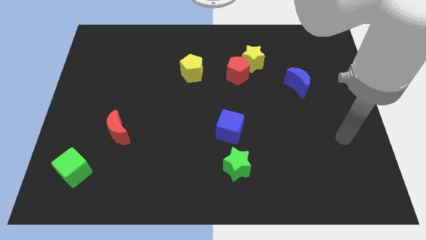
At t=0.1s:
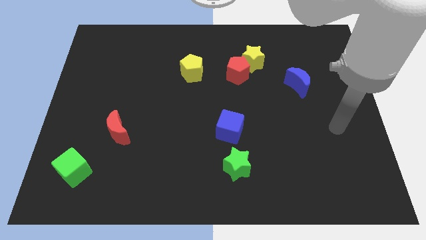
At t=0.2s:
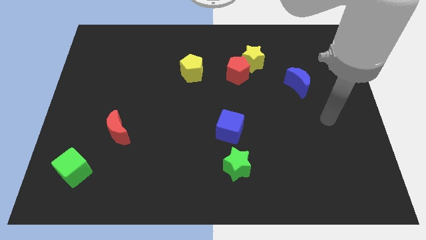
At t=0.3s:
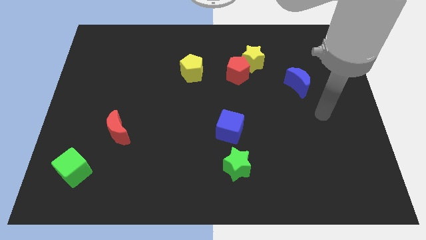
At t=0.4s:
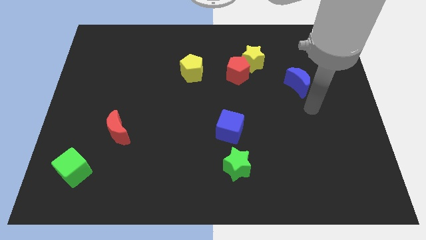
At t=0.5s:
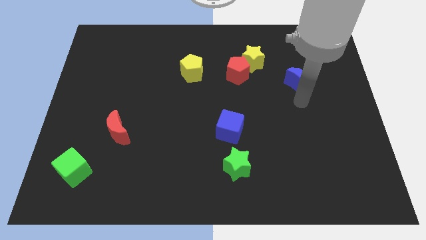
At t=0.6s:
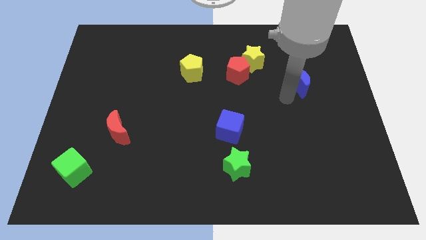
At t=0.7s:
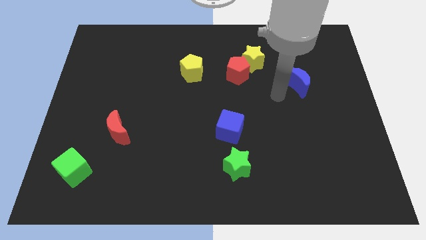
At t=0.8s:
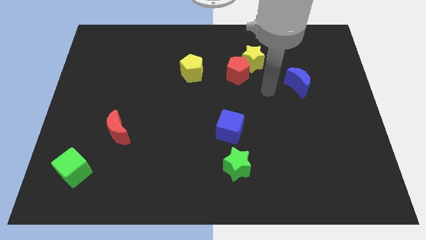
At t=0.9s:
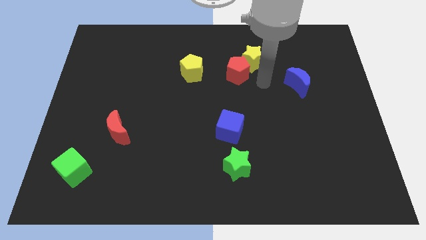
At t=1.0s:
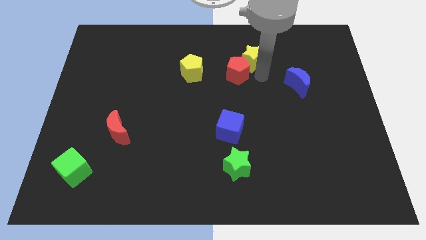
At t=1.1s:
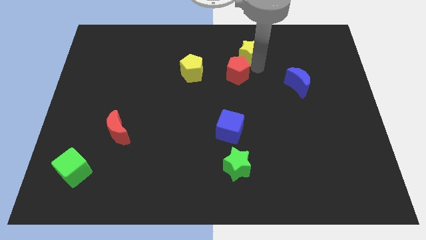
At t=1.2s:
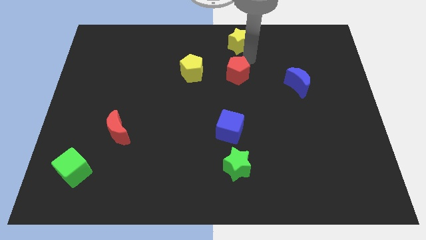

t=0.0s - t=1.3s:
pull the red pentagon apart from the yellow star

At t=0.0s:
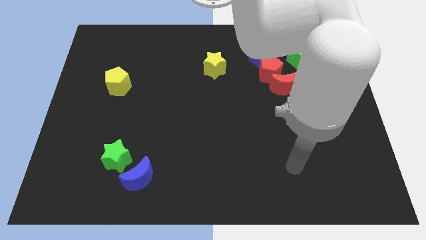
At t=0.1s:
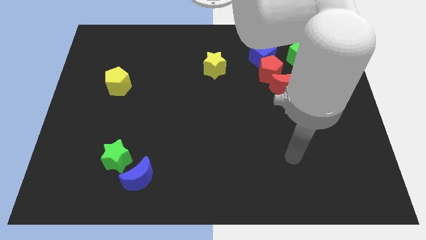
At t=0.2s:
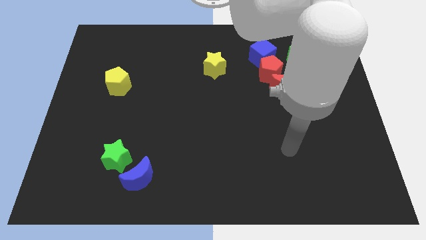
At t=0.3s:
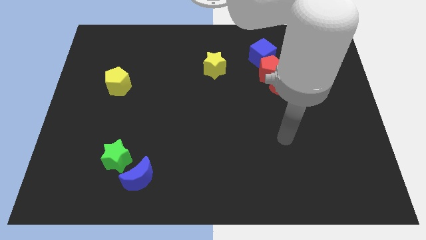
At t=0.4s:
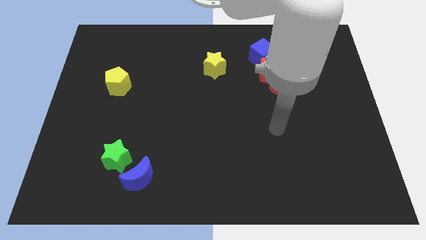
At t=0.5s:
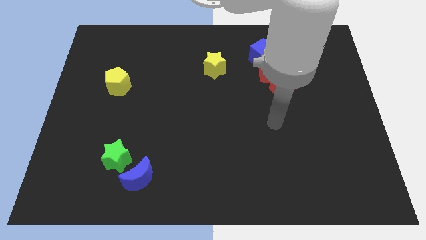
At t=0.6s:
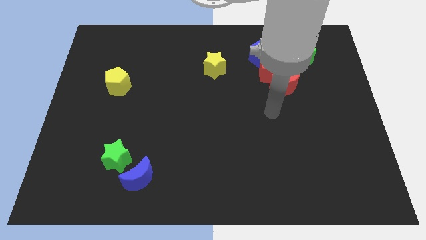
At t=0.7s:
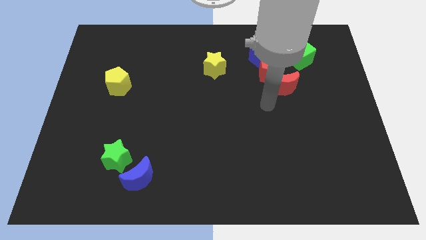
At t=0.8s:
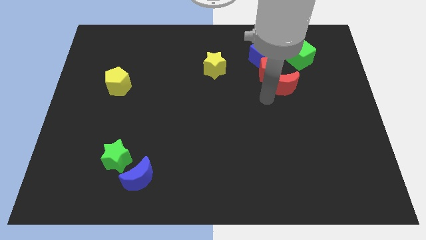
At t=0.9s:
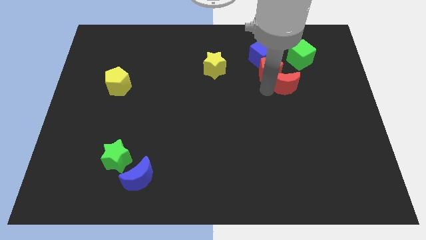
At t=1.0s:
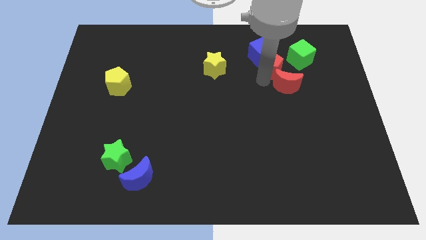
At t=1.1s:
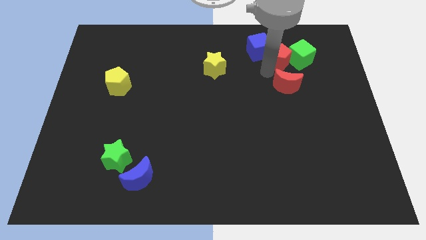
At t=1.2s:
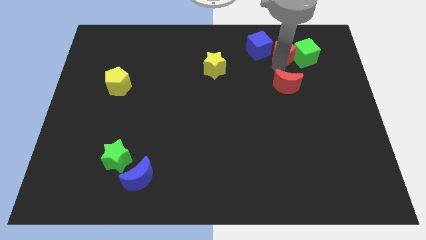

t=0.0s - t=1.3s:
pull the red moon apart from the red pentagon

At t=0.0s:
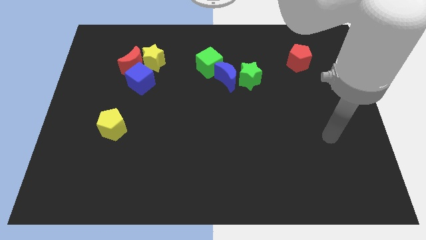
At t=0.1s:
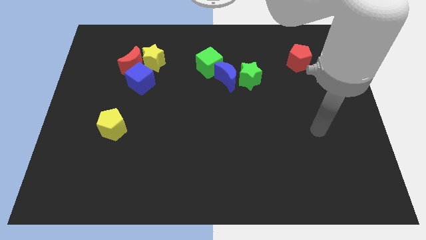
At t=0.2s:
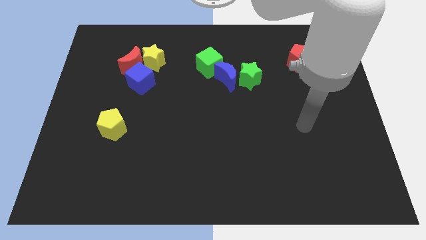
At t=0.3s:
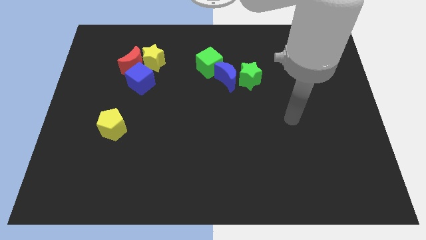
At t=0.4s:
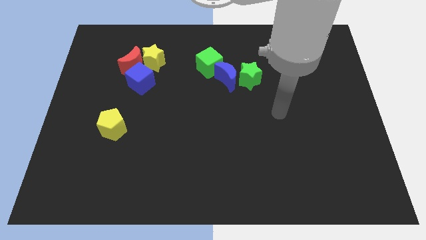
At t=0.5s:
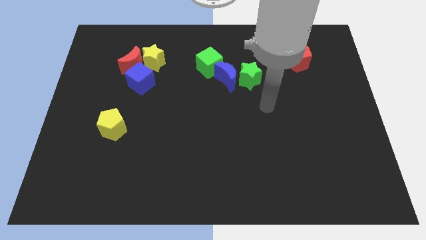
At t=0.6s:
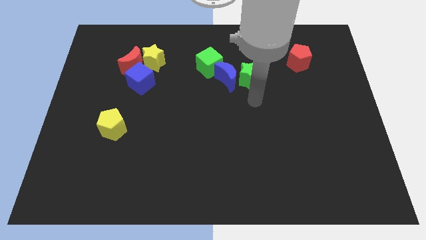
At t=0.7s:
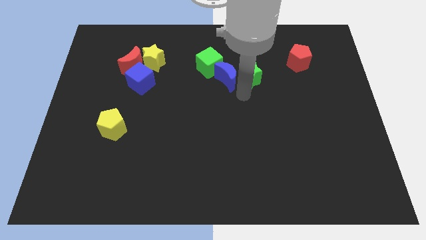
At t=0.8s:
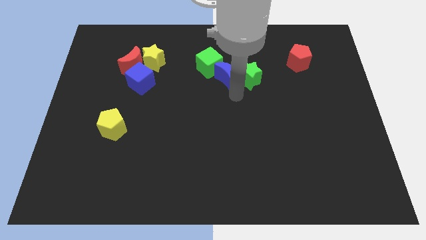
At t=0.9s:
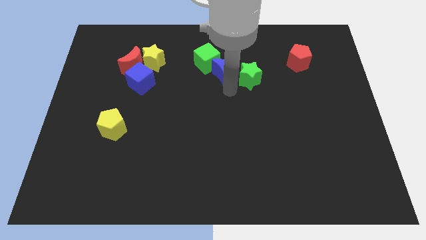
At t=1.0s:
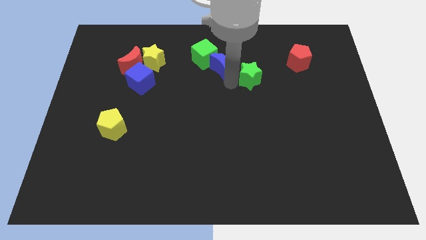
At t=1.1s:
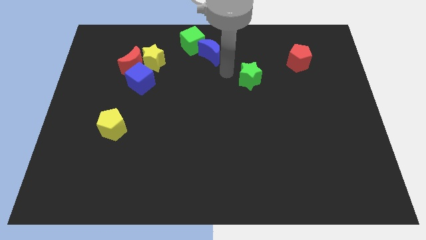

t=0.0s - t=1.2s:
separate the green star from the blue moon

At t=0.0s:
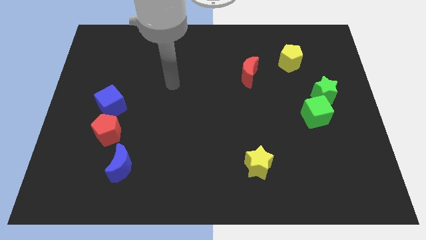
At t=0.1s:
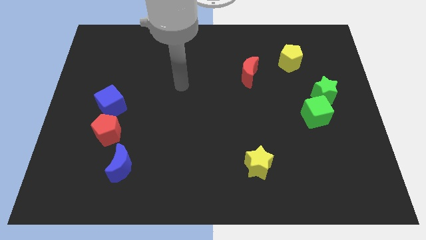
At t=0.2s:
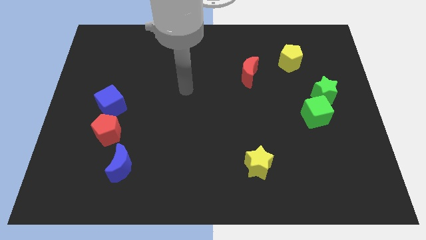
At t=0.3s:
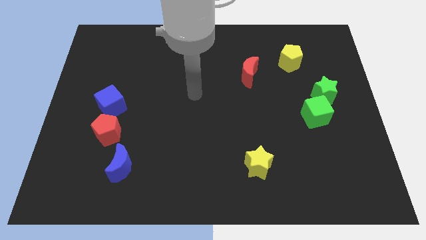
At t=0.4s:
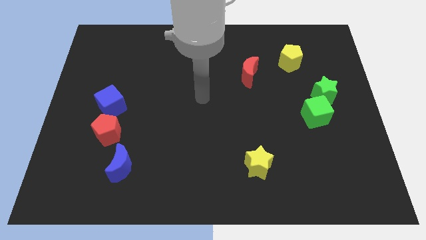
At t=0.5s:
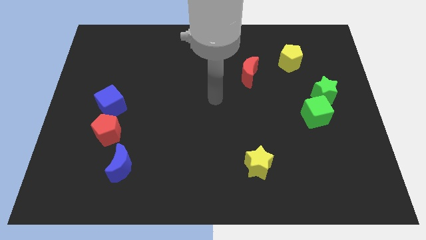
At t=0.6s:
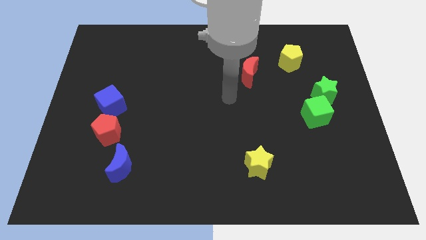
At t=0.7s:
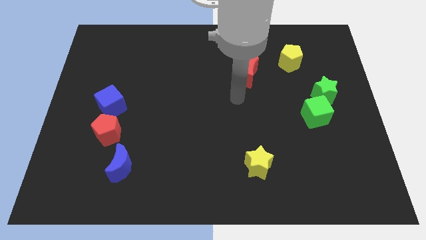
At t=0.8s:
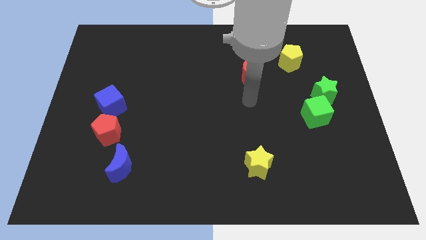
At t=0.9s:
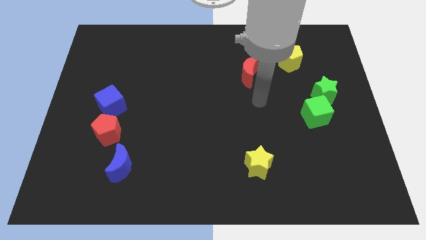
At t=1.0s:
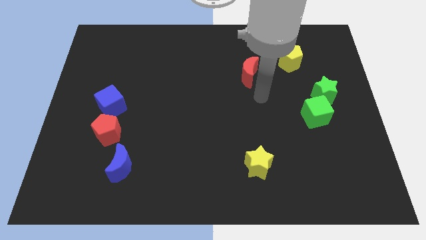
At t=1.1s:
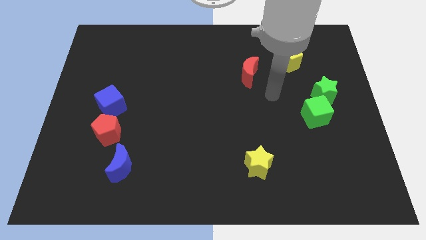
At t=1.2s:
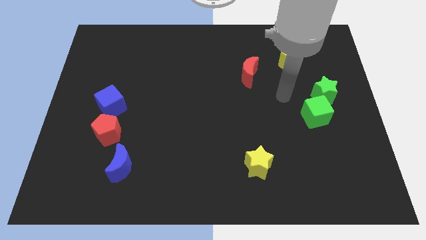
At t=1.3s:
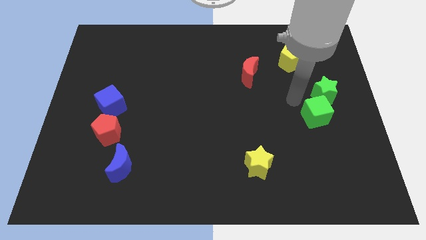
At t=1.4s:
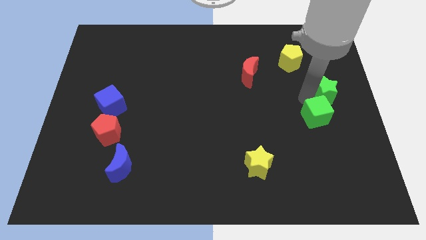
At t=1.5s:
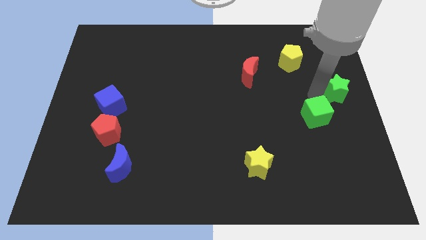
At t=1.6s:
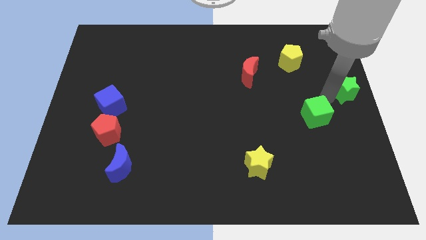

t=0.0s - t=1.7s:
move the green cube away from the green star

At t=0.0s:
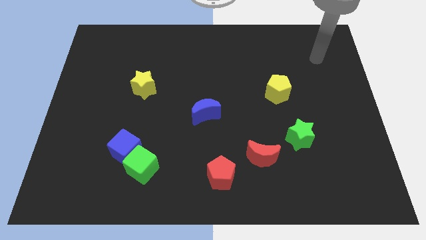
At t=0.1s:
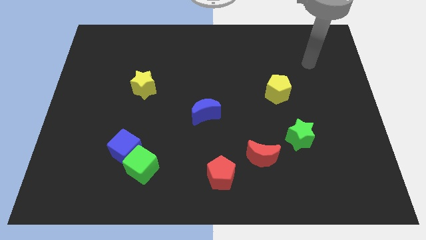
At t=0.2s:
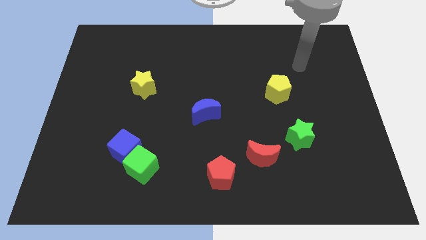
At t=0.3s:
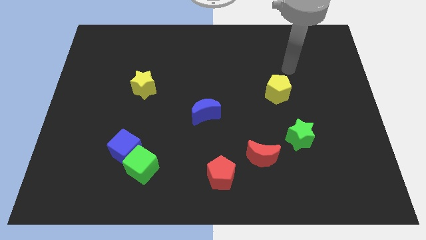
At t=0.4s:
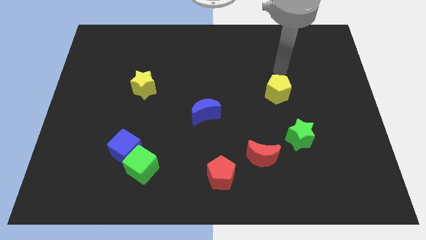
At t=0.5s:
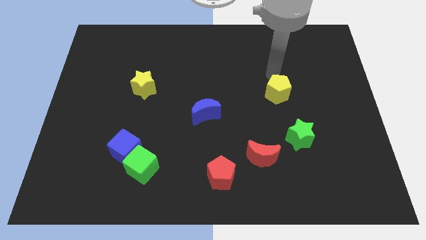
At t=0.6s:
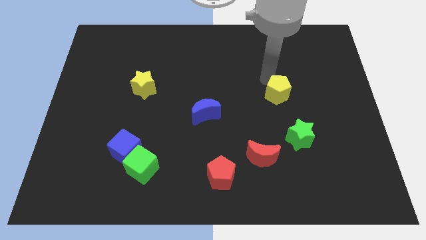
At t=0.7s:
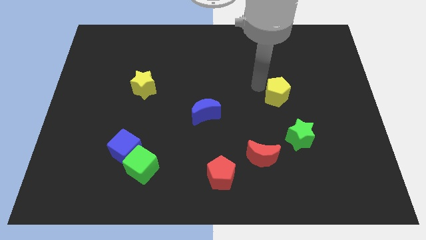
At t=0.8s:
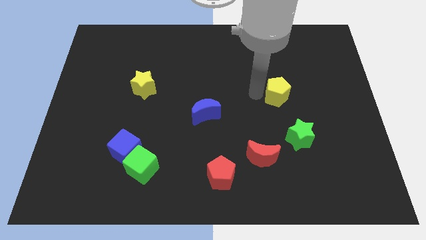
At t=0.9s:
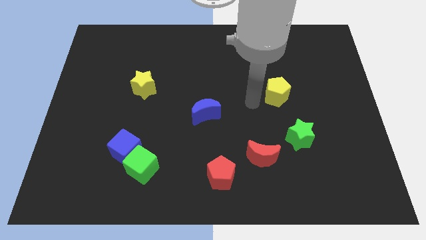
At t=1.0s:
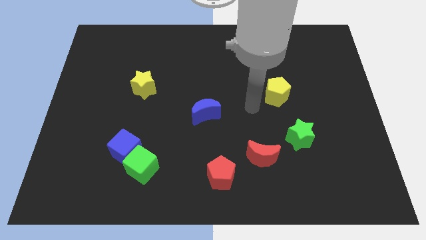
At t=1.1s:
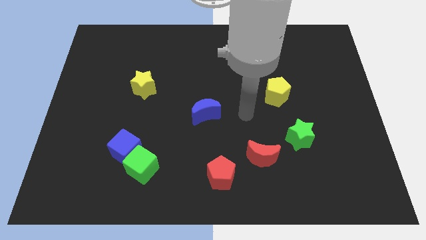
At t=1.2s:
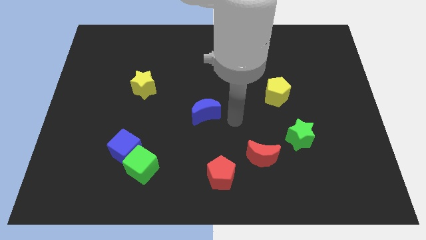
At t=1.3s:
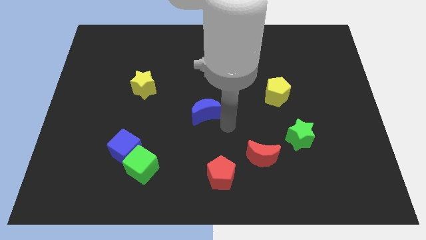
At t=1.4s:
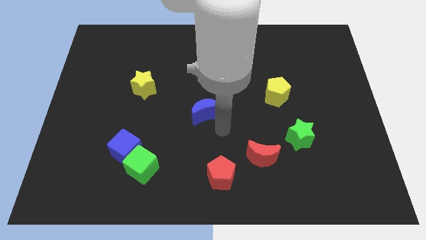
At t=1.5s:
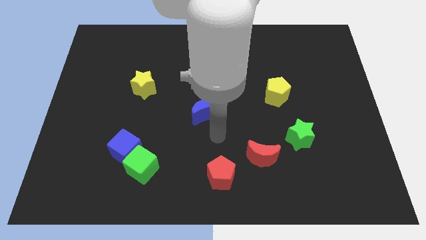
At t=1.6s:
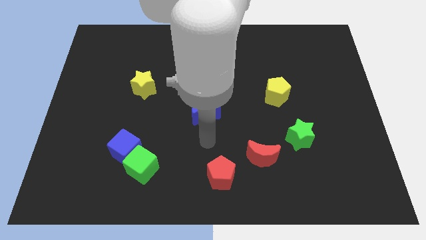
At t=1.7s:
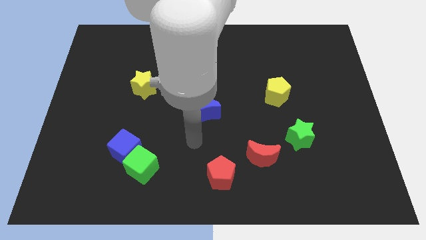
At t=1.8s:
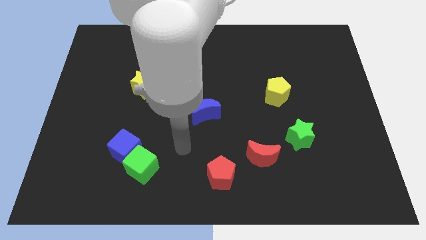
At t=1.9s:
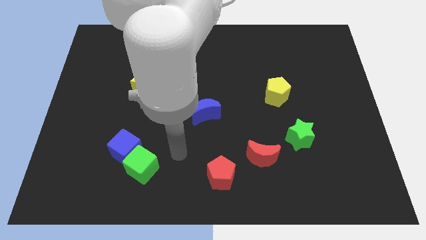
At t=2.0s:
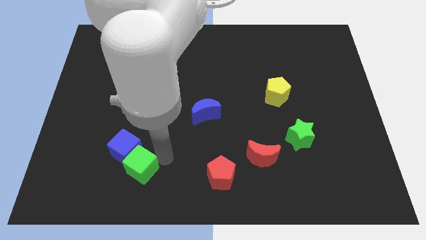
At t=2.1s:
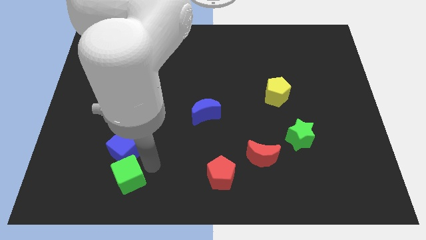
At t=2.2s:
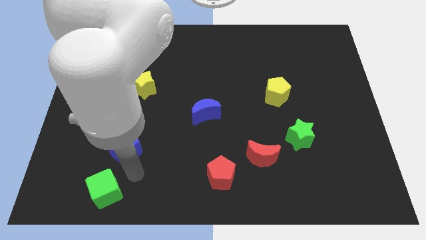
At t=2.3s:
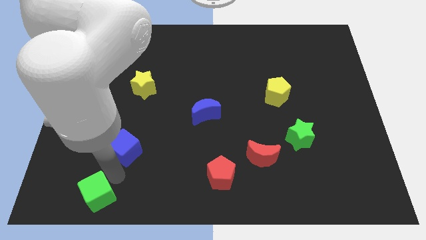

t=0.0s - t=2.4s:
separate the blue cube from the green cube

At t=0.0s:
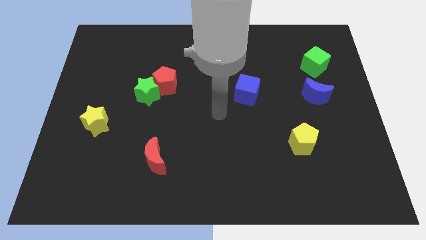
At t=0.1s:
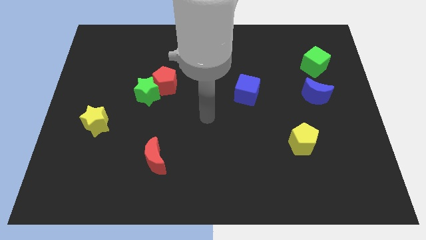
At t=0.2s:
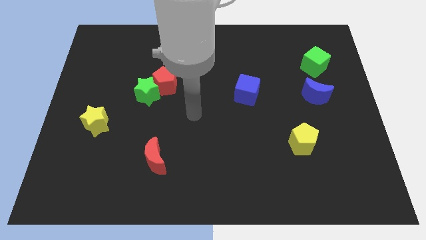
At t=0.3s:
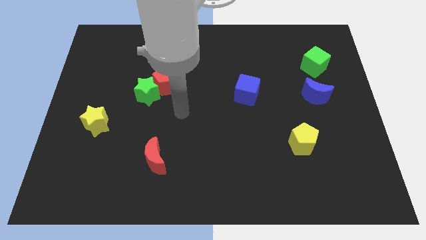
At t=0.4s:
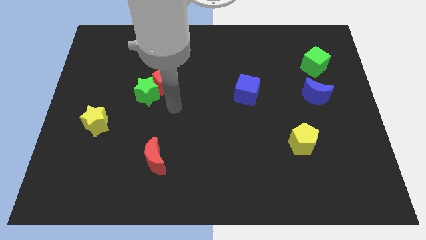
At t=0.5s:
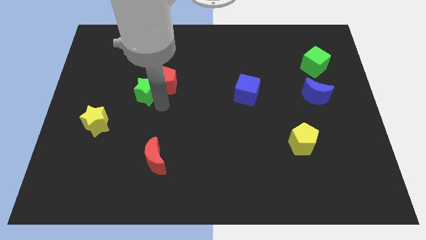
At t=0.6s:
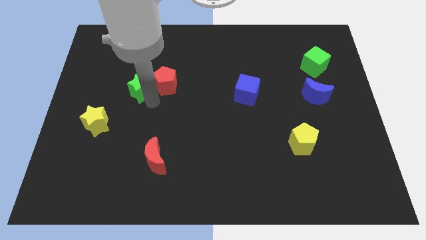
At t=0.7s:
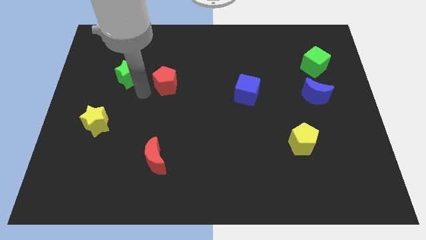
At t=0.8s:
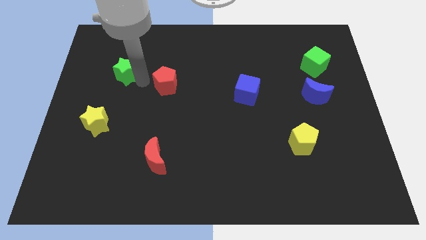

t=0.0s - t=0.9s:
move the red pentagon away from the green star

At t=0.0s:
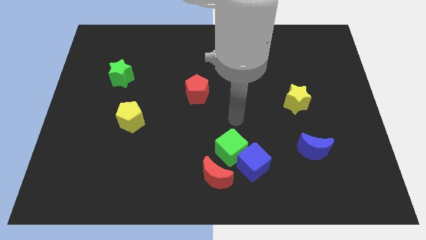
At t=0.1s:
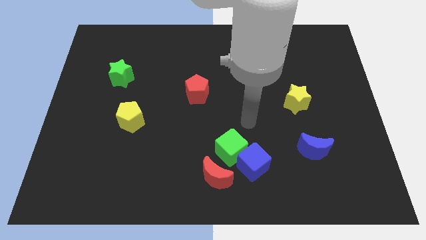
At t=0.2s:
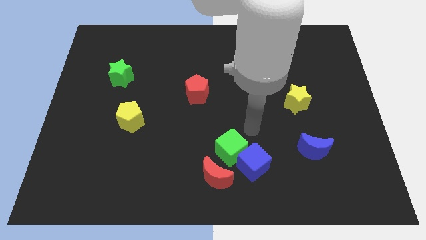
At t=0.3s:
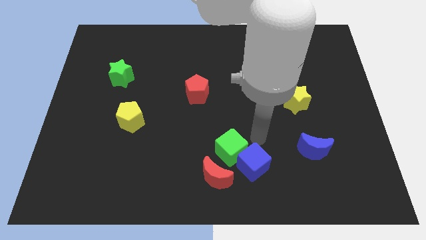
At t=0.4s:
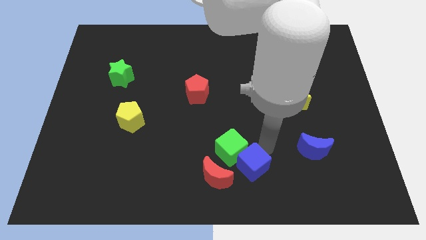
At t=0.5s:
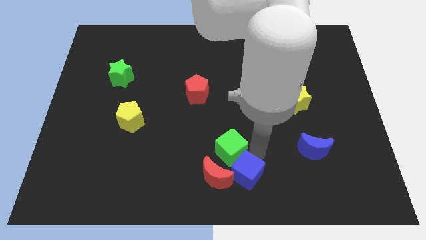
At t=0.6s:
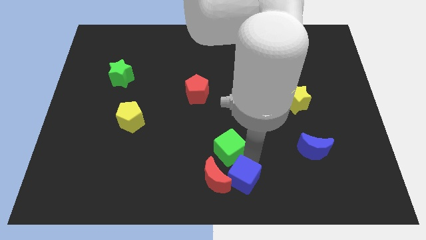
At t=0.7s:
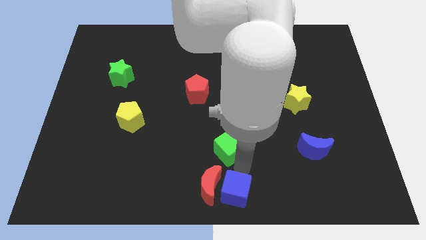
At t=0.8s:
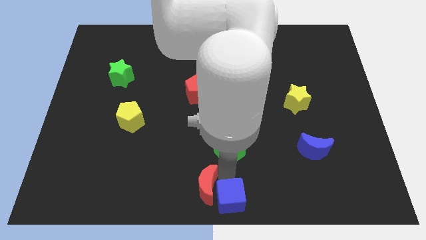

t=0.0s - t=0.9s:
pull the green cube apart from the blue cube and red moon
